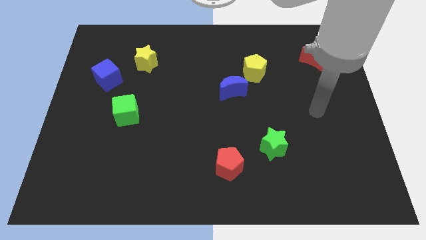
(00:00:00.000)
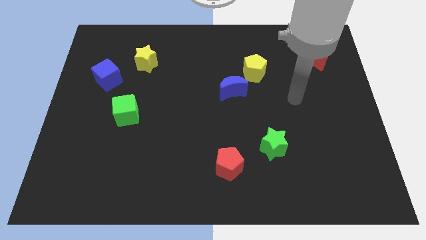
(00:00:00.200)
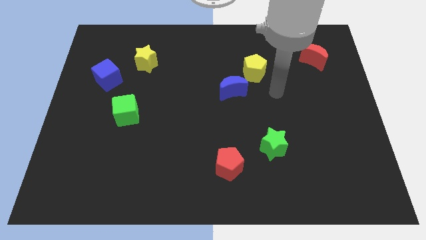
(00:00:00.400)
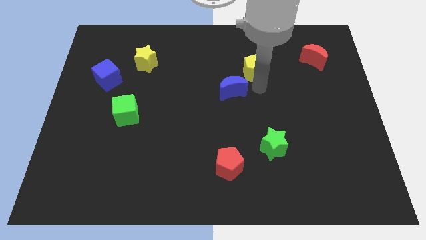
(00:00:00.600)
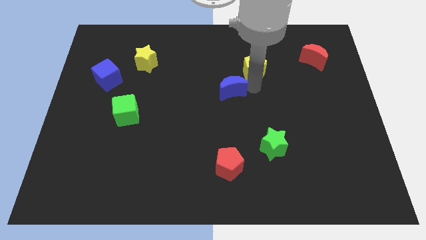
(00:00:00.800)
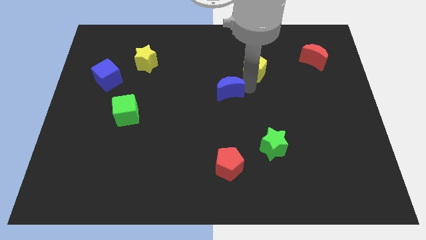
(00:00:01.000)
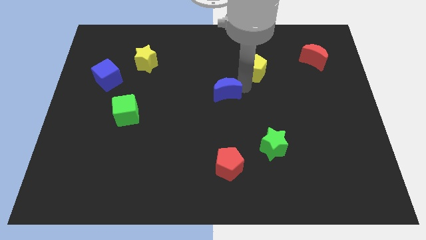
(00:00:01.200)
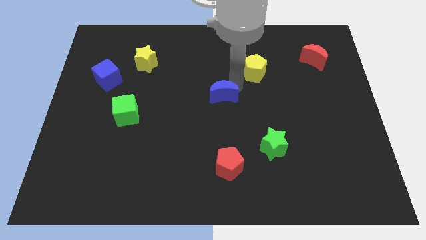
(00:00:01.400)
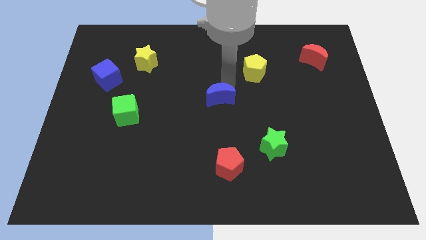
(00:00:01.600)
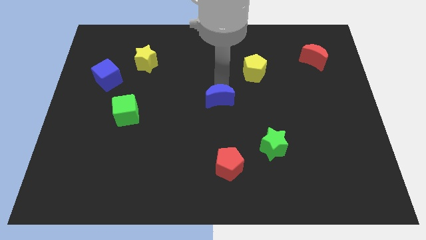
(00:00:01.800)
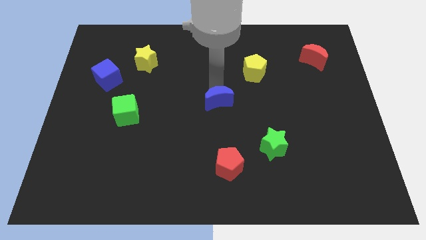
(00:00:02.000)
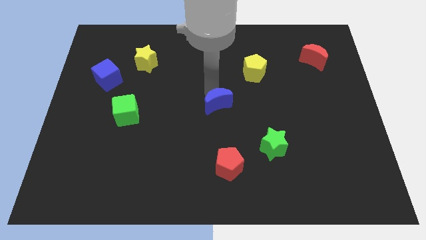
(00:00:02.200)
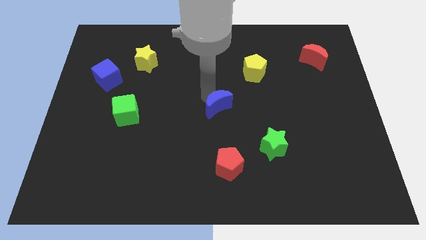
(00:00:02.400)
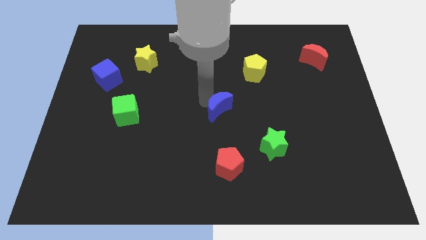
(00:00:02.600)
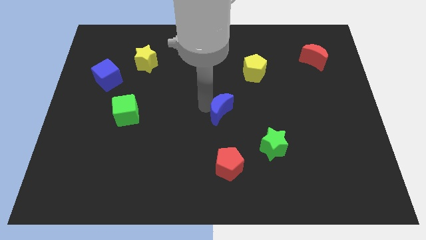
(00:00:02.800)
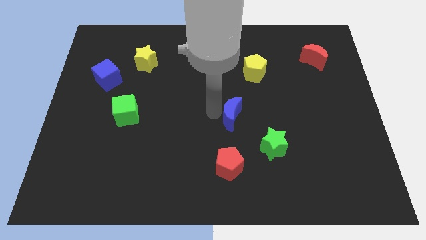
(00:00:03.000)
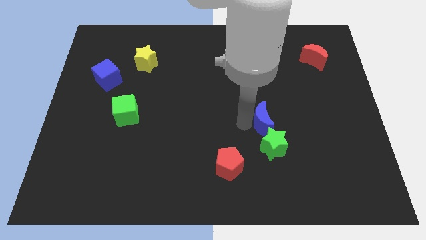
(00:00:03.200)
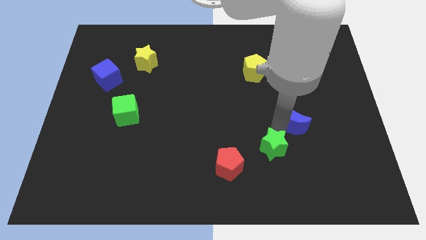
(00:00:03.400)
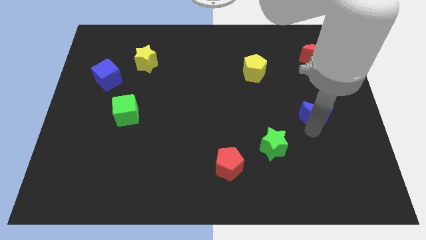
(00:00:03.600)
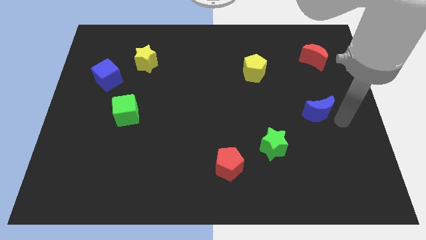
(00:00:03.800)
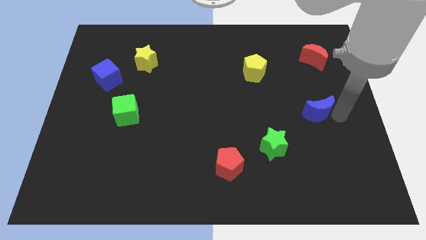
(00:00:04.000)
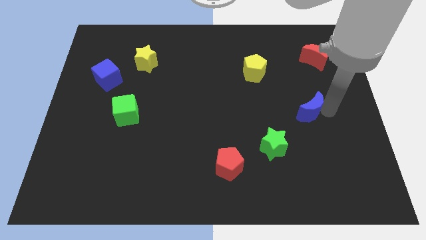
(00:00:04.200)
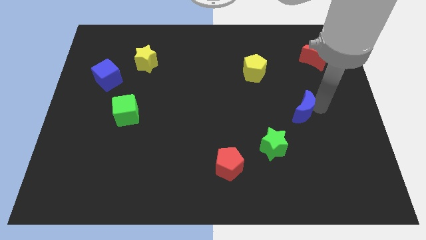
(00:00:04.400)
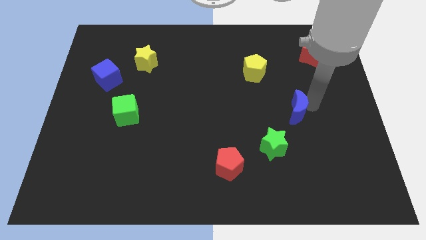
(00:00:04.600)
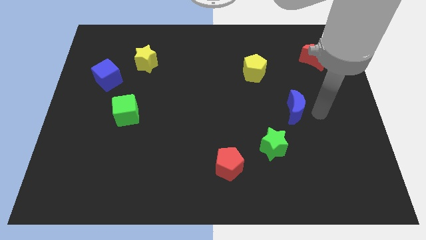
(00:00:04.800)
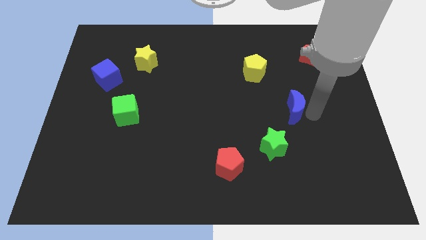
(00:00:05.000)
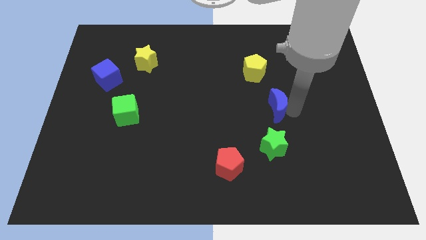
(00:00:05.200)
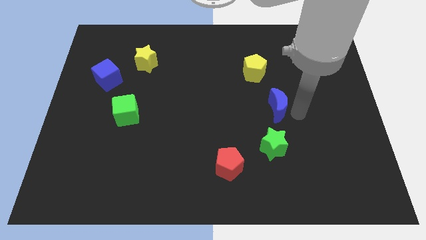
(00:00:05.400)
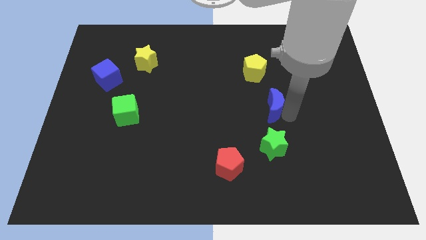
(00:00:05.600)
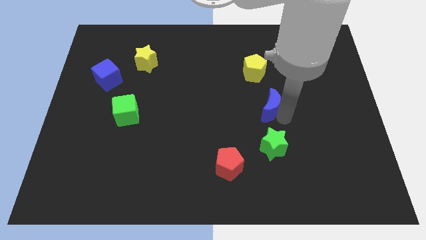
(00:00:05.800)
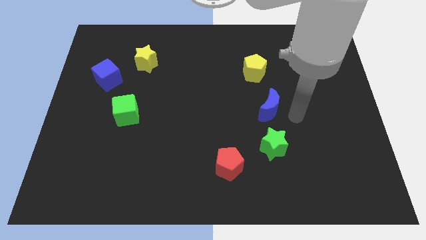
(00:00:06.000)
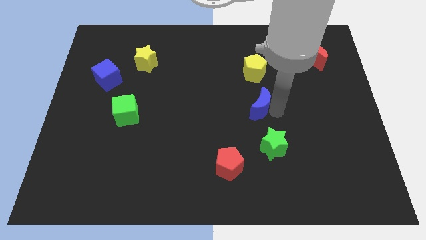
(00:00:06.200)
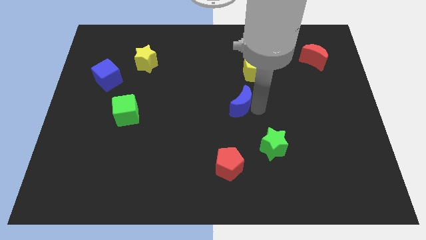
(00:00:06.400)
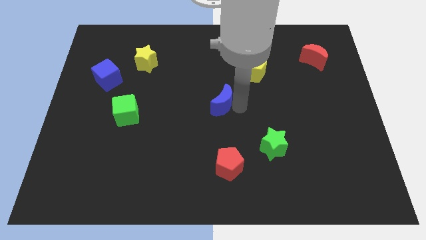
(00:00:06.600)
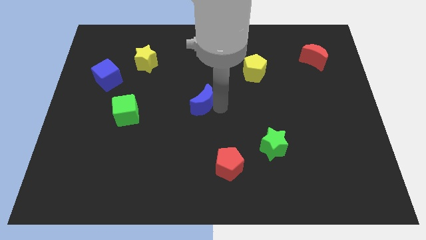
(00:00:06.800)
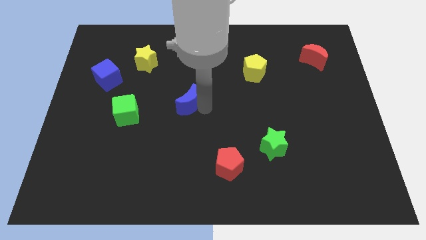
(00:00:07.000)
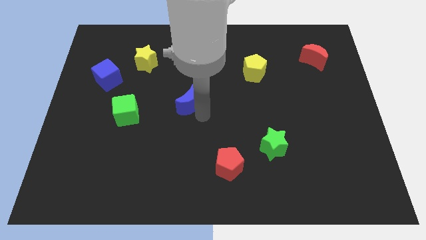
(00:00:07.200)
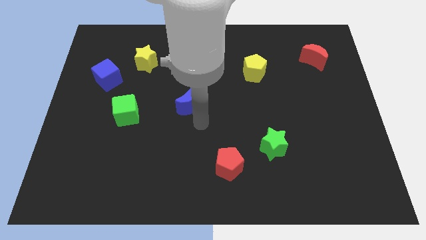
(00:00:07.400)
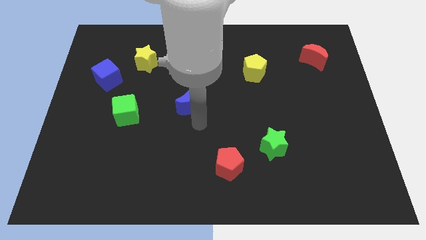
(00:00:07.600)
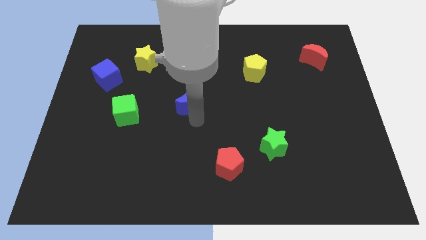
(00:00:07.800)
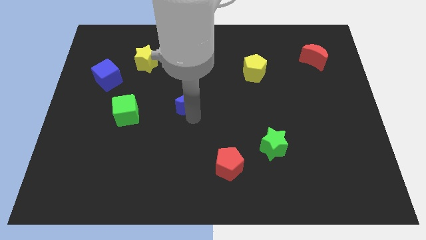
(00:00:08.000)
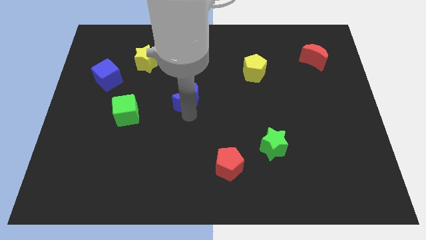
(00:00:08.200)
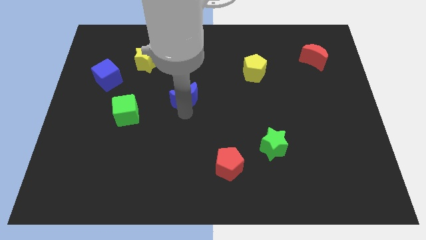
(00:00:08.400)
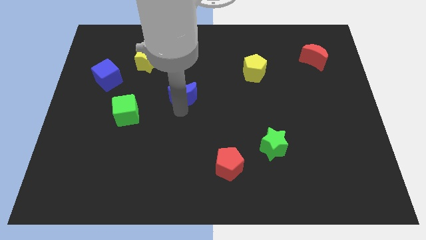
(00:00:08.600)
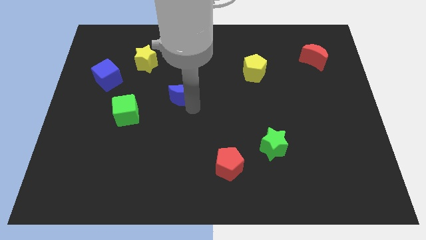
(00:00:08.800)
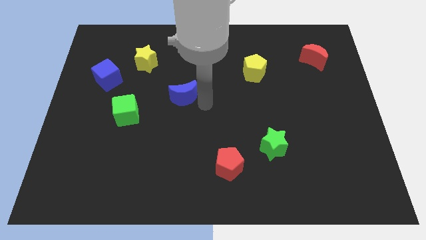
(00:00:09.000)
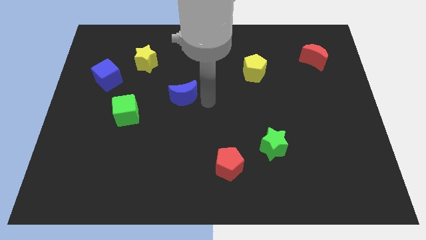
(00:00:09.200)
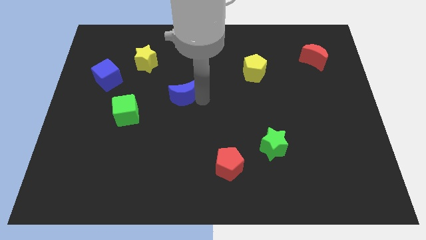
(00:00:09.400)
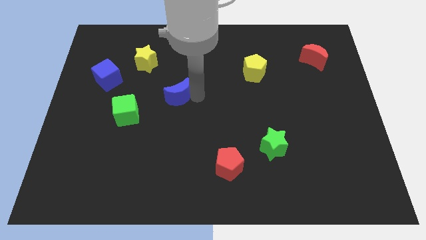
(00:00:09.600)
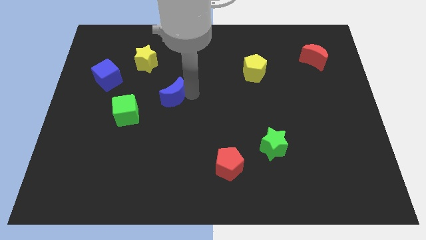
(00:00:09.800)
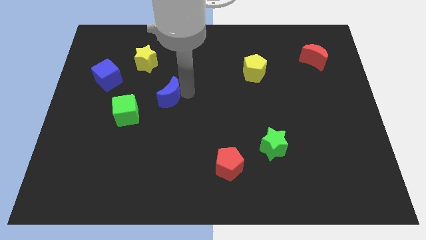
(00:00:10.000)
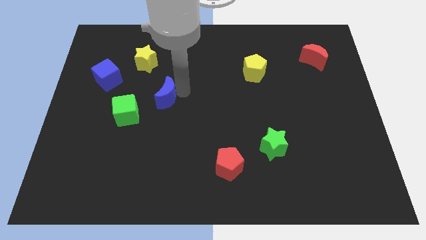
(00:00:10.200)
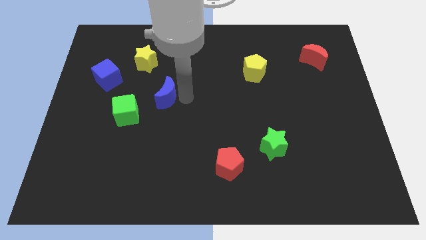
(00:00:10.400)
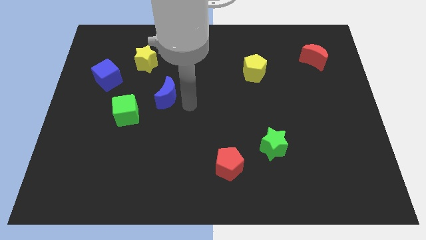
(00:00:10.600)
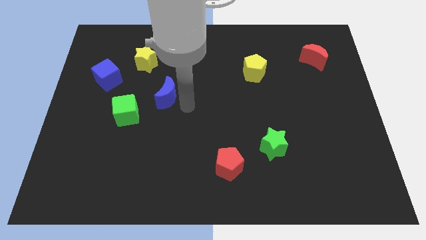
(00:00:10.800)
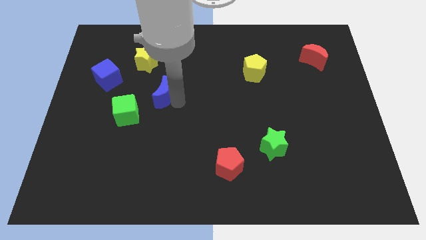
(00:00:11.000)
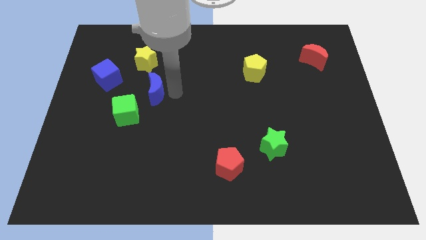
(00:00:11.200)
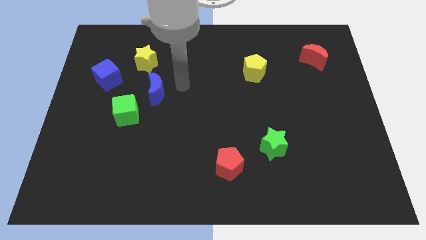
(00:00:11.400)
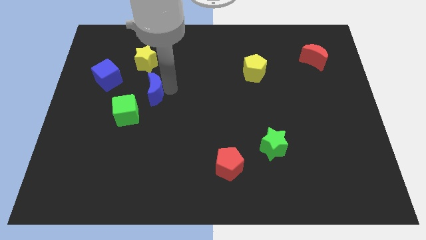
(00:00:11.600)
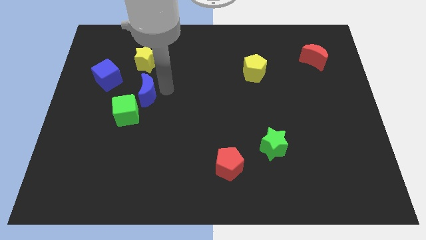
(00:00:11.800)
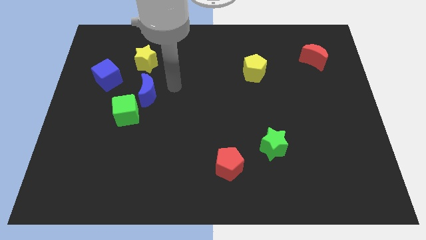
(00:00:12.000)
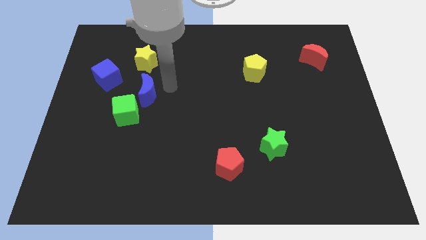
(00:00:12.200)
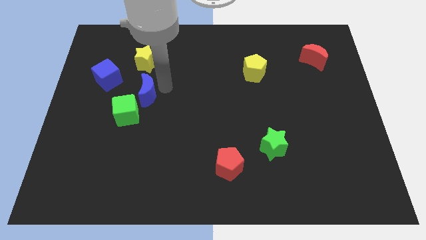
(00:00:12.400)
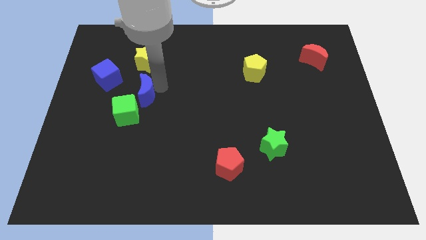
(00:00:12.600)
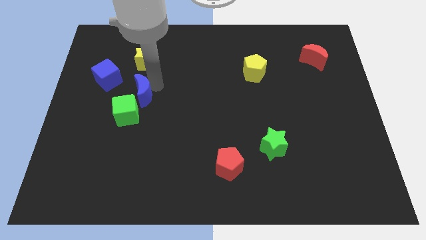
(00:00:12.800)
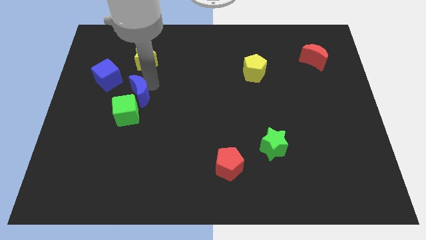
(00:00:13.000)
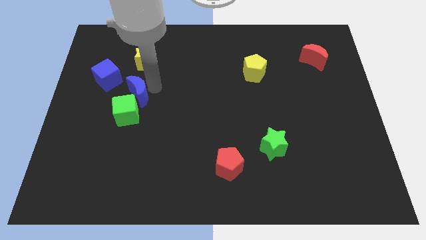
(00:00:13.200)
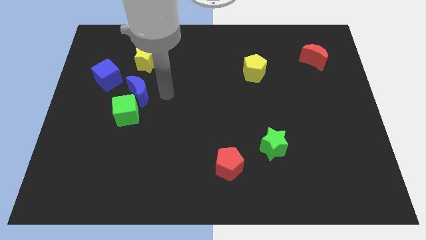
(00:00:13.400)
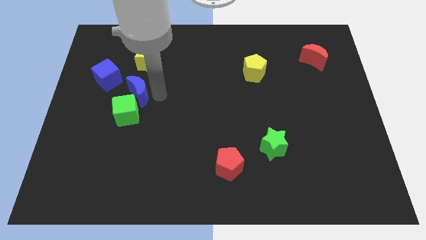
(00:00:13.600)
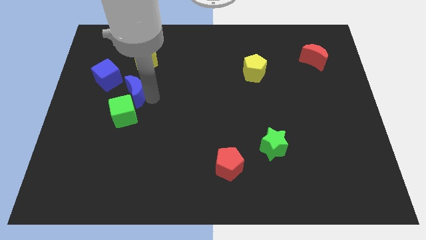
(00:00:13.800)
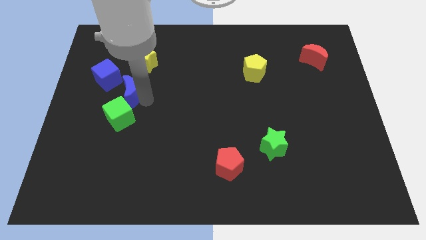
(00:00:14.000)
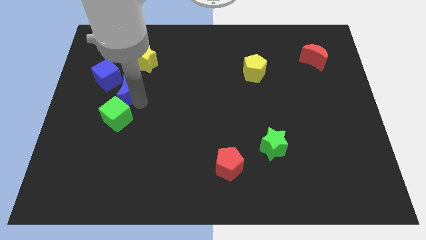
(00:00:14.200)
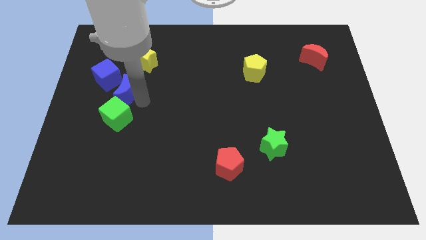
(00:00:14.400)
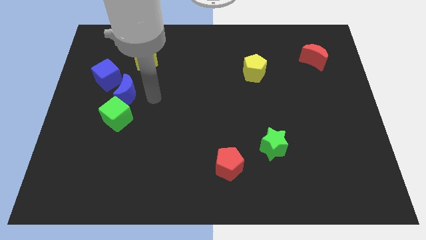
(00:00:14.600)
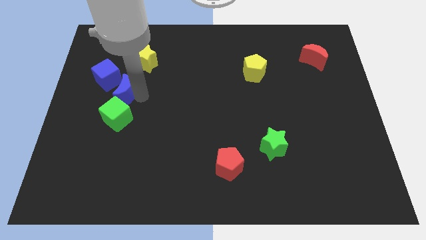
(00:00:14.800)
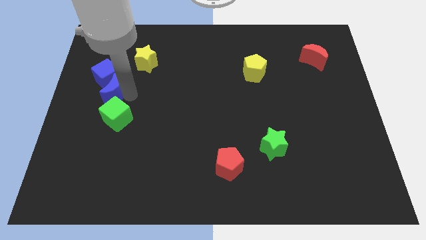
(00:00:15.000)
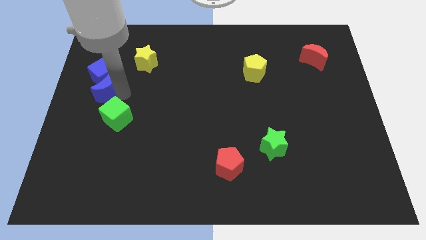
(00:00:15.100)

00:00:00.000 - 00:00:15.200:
put the blue moon to the left side of the board
